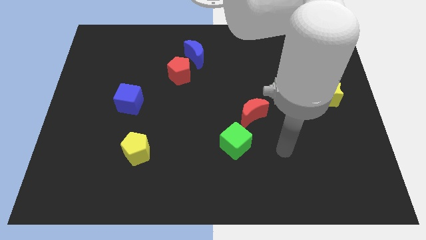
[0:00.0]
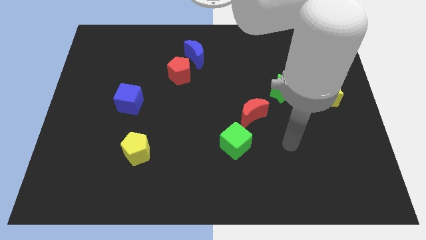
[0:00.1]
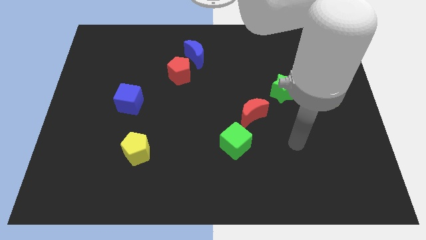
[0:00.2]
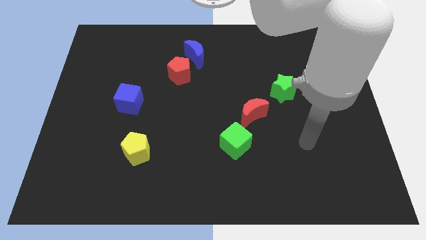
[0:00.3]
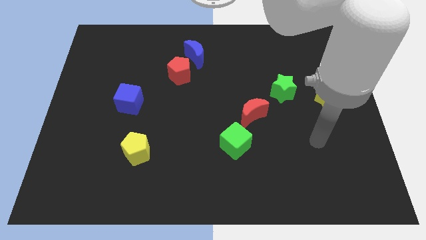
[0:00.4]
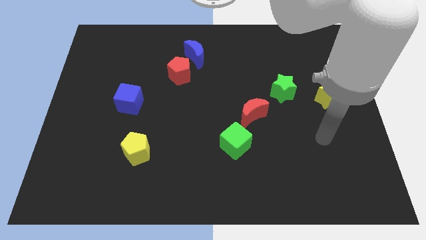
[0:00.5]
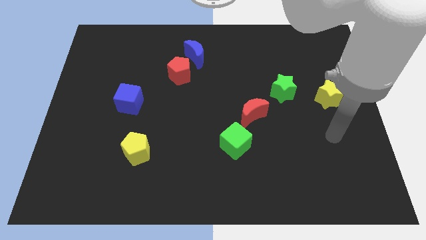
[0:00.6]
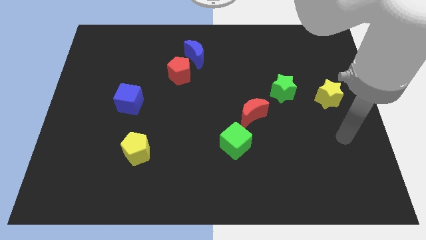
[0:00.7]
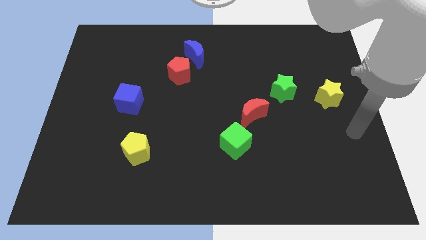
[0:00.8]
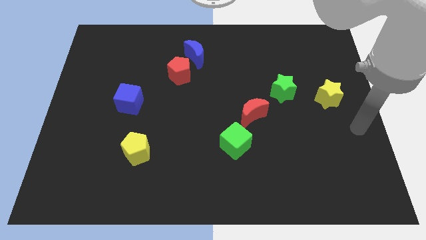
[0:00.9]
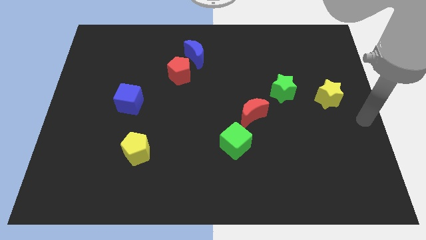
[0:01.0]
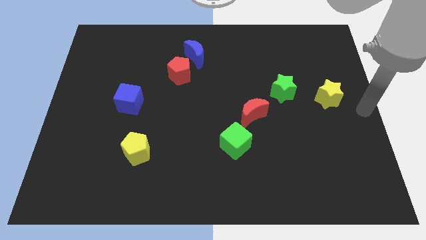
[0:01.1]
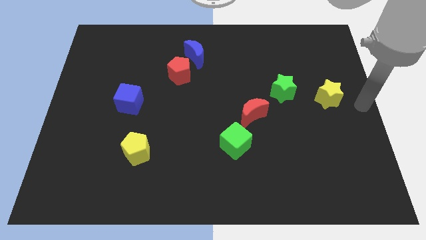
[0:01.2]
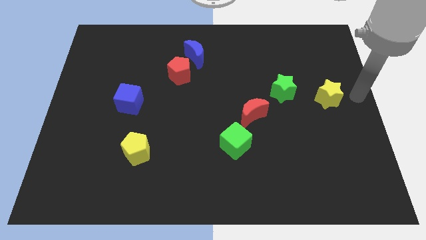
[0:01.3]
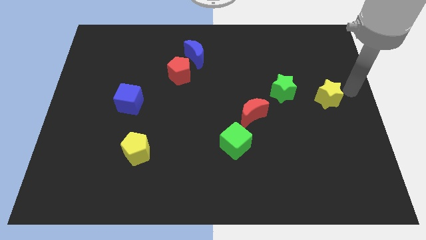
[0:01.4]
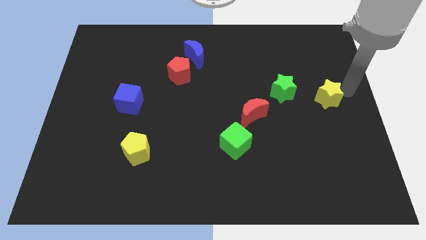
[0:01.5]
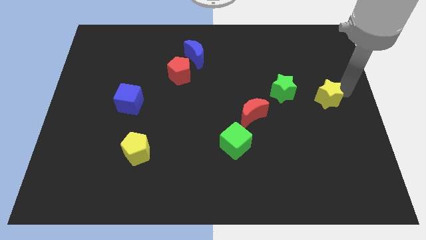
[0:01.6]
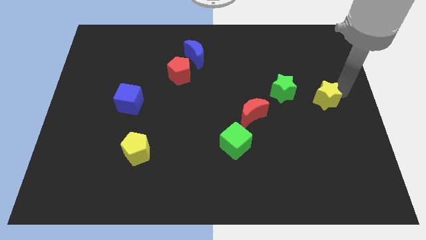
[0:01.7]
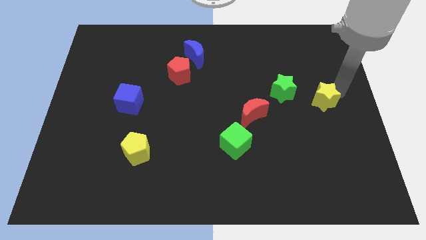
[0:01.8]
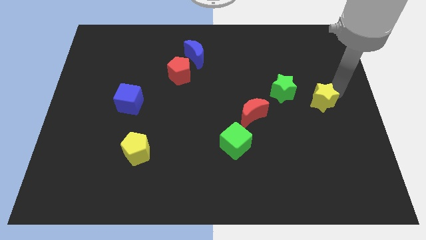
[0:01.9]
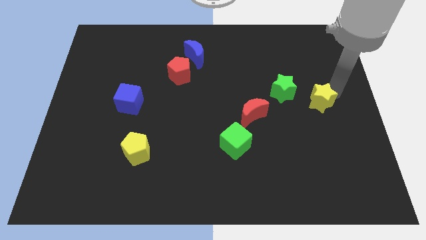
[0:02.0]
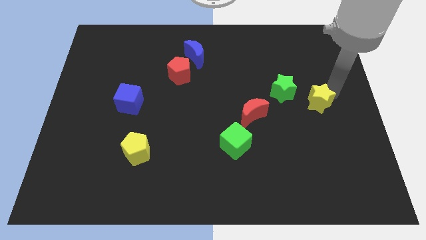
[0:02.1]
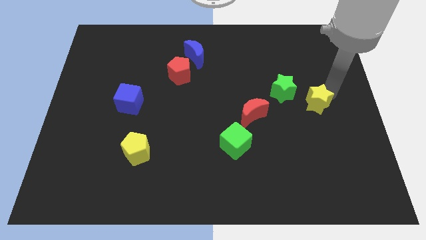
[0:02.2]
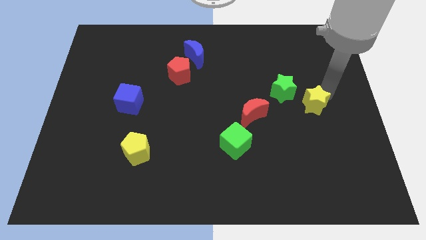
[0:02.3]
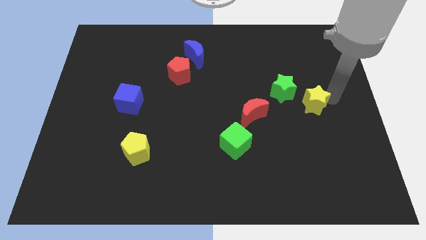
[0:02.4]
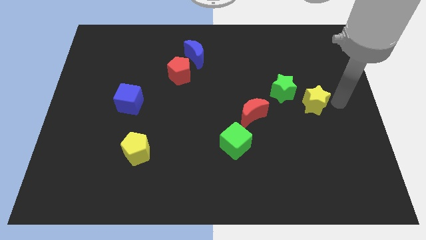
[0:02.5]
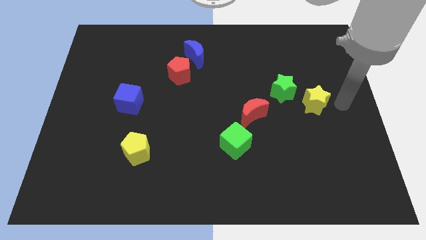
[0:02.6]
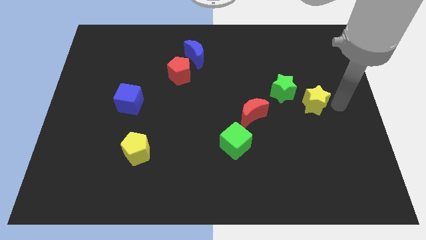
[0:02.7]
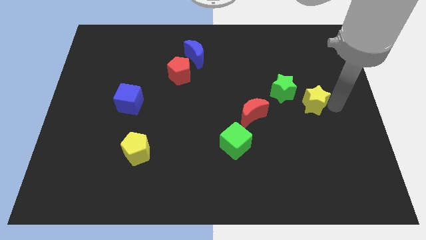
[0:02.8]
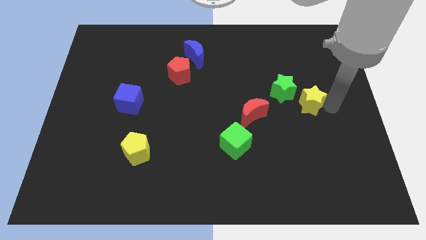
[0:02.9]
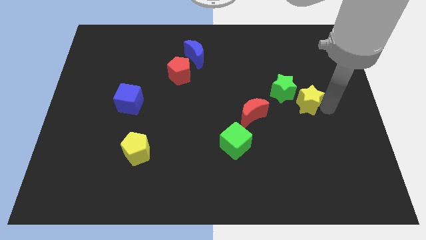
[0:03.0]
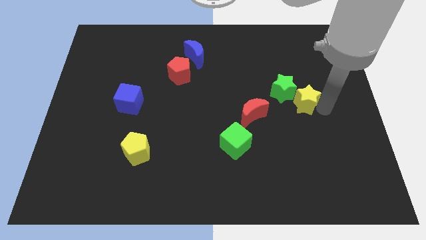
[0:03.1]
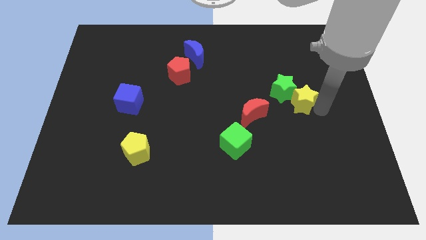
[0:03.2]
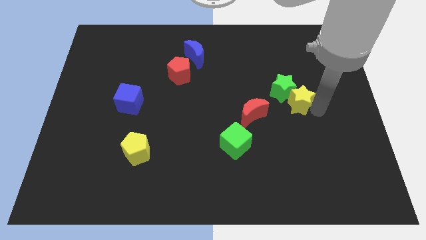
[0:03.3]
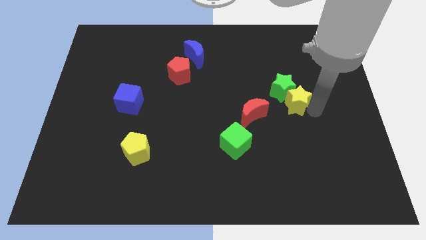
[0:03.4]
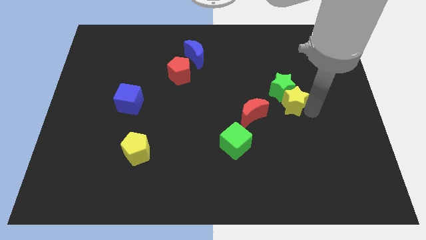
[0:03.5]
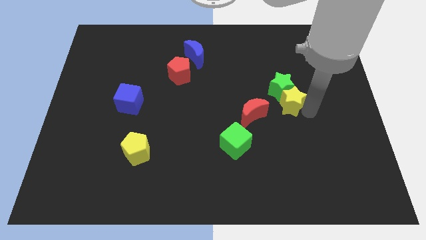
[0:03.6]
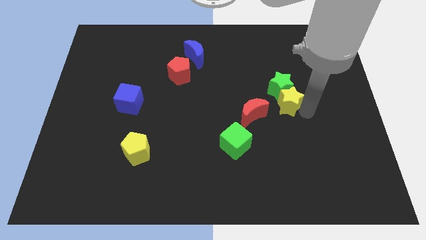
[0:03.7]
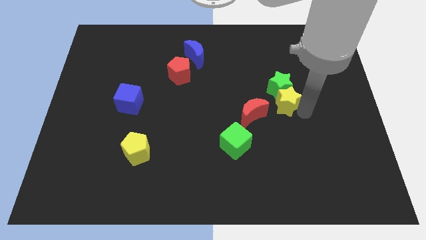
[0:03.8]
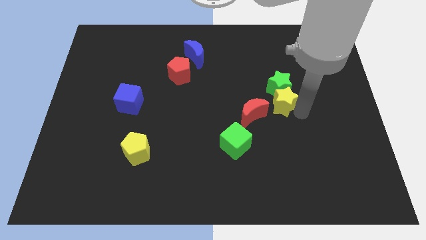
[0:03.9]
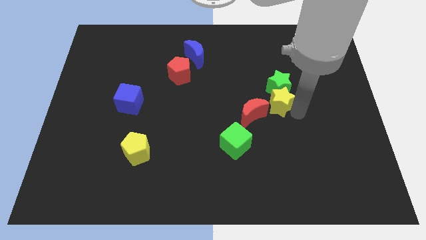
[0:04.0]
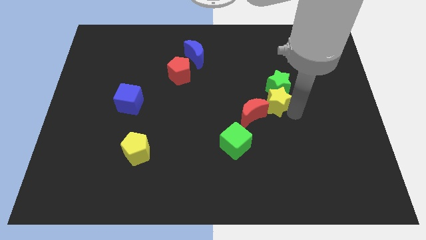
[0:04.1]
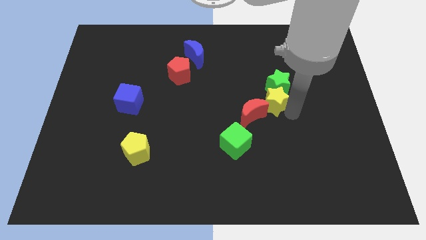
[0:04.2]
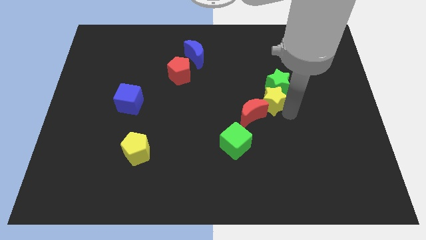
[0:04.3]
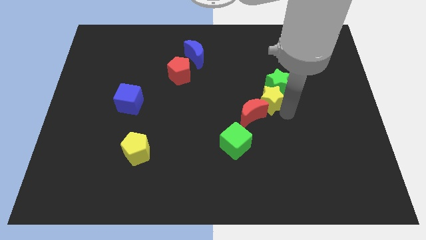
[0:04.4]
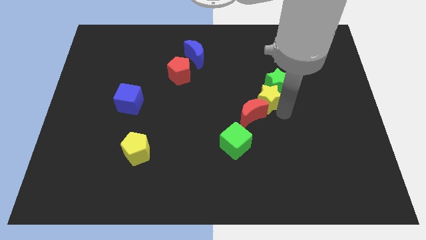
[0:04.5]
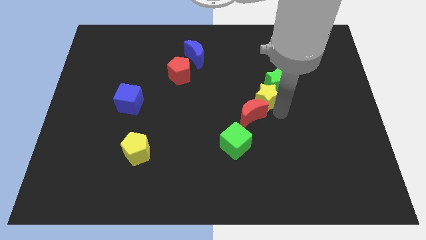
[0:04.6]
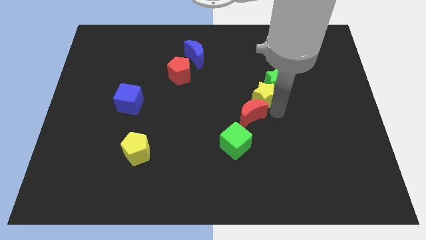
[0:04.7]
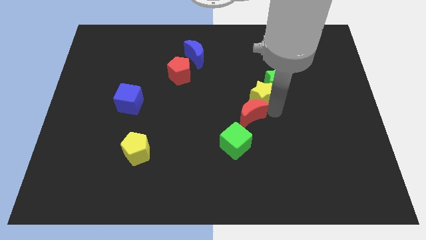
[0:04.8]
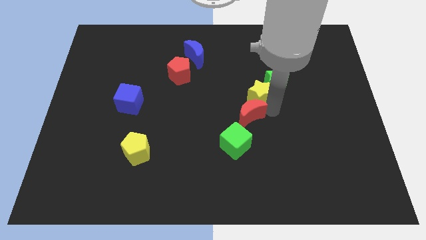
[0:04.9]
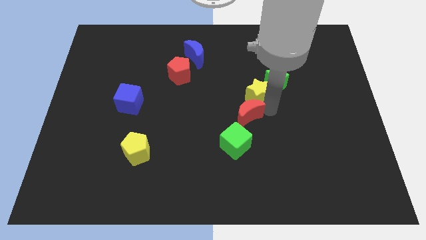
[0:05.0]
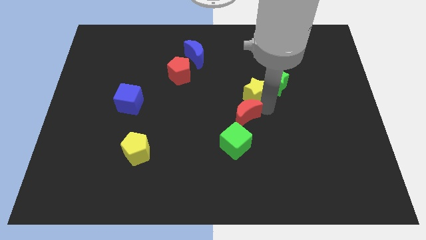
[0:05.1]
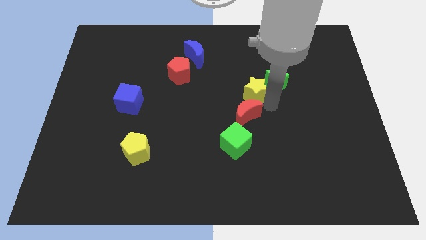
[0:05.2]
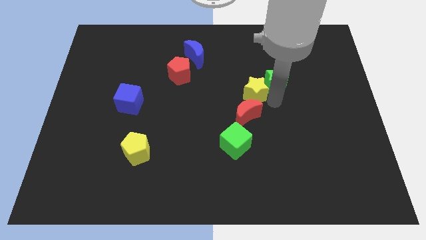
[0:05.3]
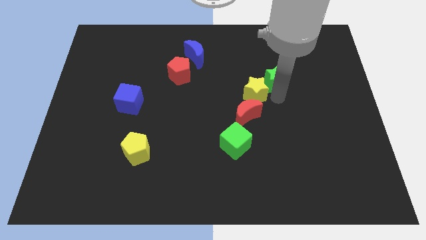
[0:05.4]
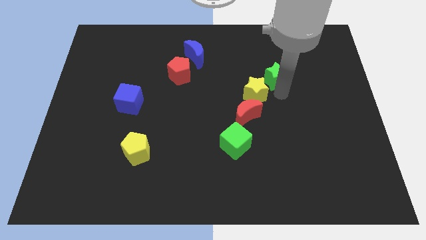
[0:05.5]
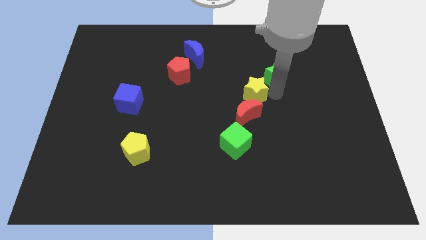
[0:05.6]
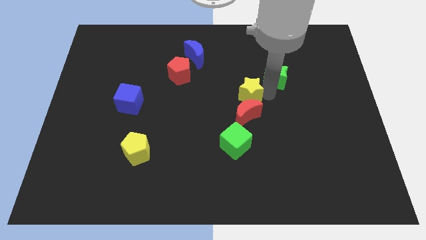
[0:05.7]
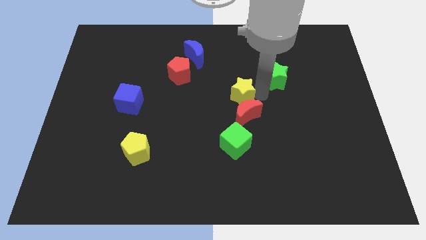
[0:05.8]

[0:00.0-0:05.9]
move the yellow star to the left

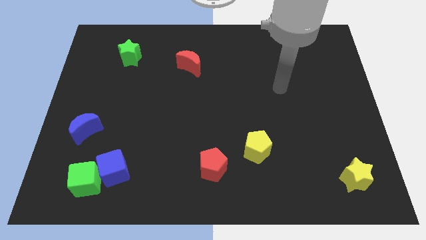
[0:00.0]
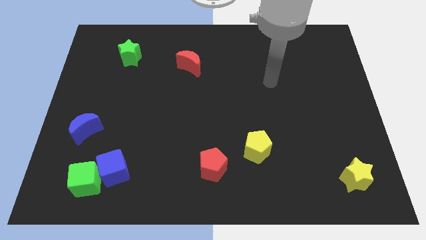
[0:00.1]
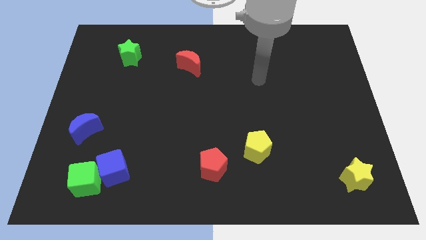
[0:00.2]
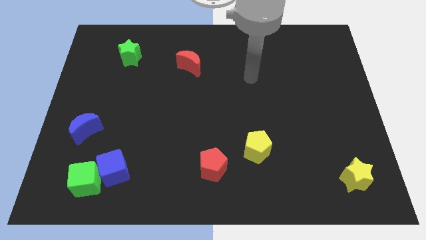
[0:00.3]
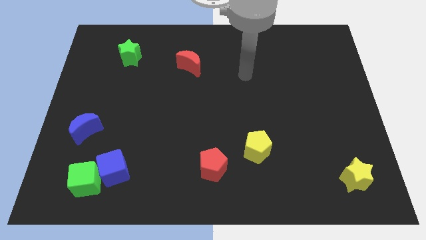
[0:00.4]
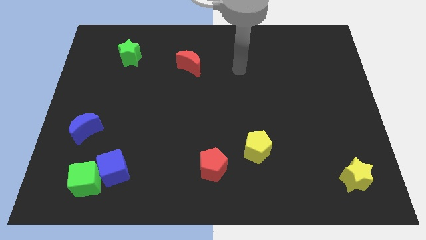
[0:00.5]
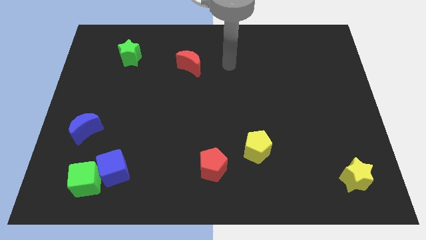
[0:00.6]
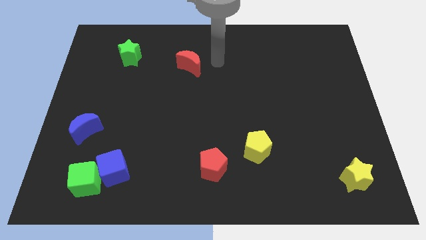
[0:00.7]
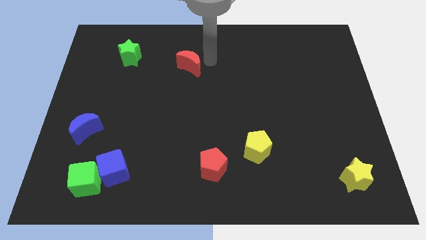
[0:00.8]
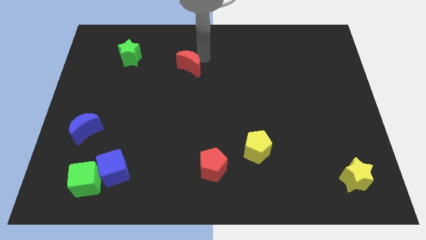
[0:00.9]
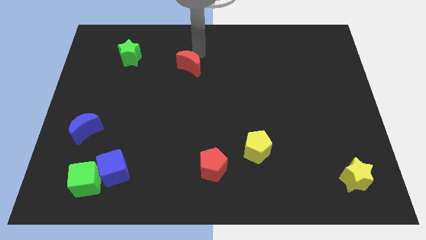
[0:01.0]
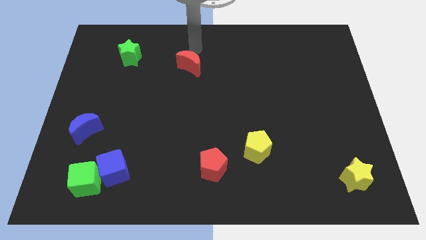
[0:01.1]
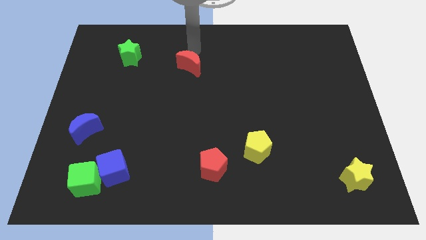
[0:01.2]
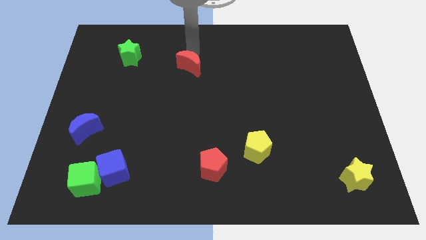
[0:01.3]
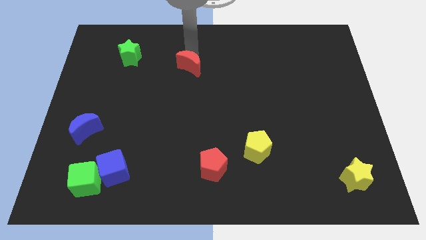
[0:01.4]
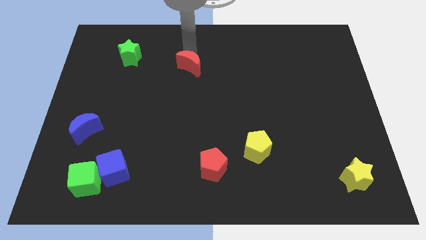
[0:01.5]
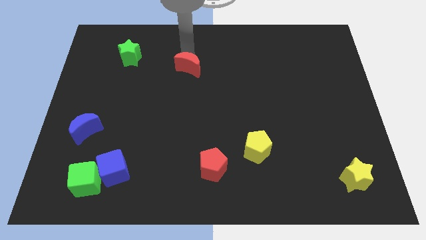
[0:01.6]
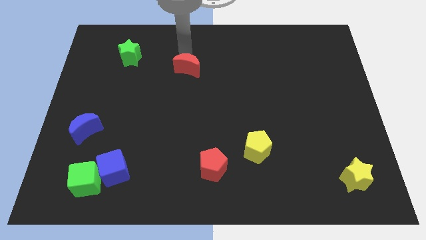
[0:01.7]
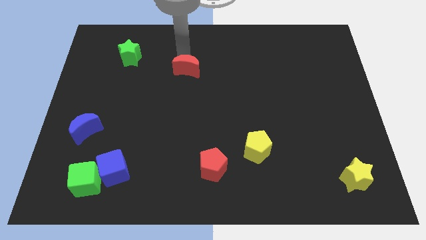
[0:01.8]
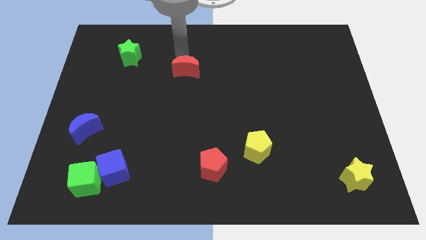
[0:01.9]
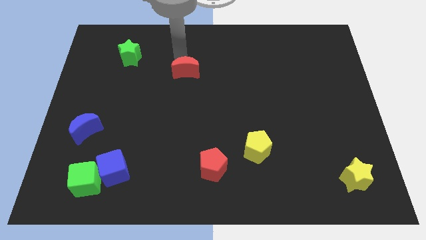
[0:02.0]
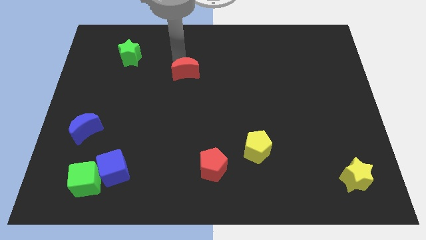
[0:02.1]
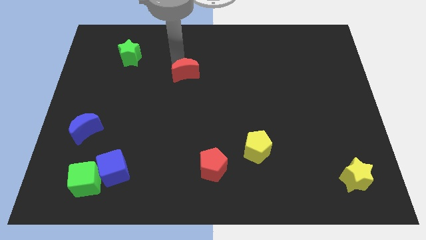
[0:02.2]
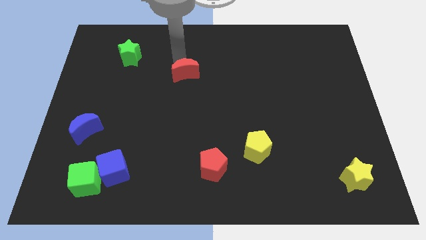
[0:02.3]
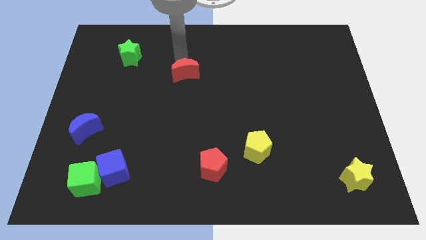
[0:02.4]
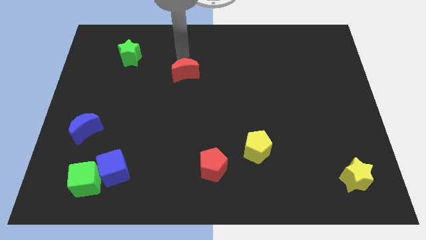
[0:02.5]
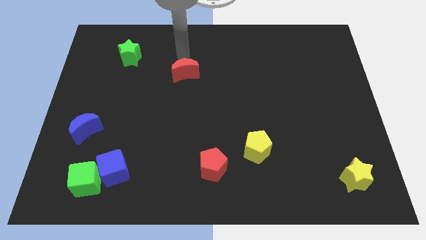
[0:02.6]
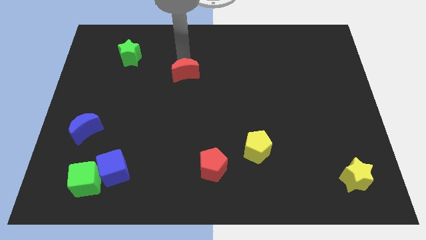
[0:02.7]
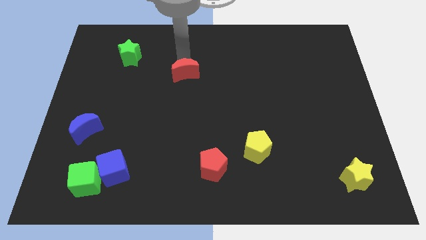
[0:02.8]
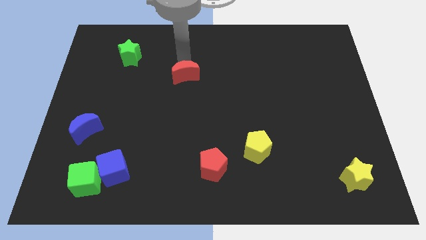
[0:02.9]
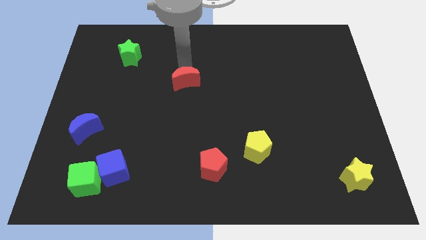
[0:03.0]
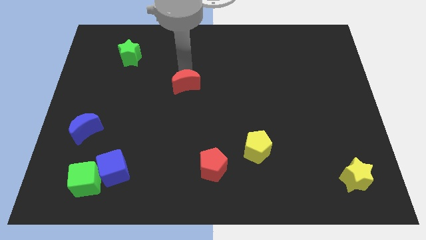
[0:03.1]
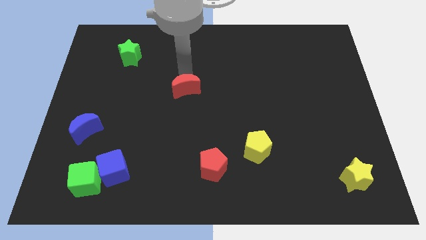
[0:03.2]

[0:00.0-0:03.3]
slightly slide the red moon down
